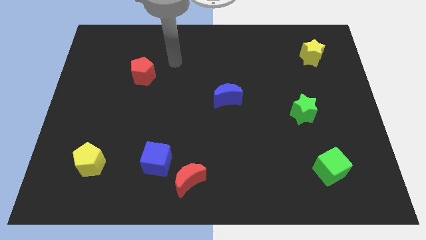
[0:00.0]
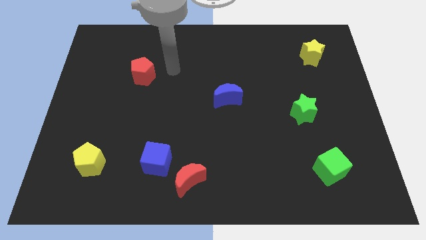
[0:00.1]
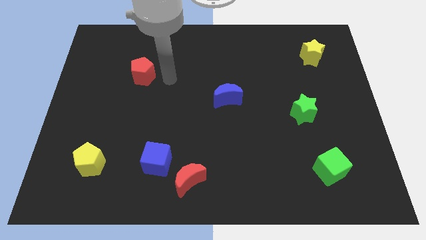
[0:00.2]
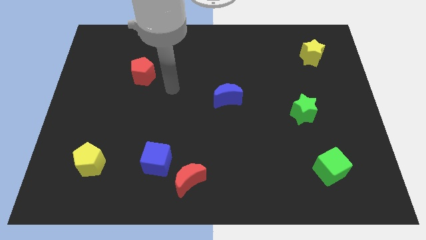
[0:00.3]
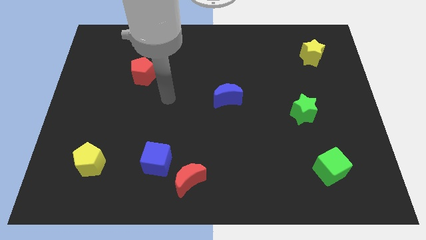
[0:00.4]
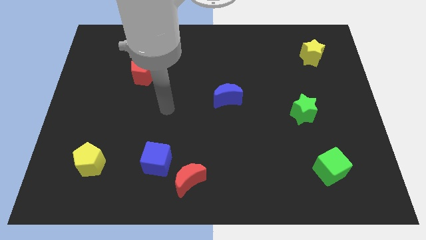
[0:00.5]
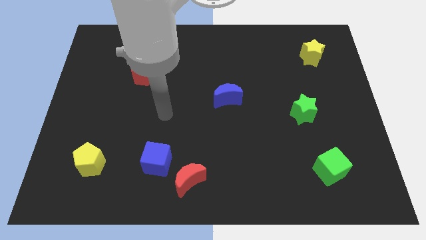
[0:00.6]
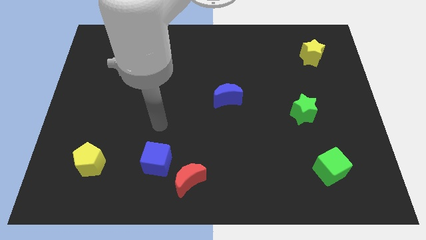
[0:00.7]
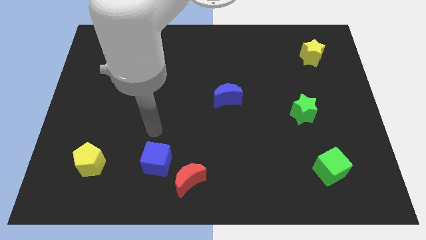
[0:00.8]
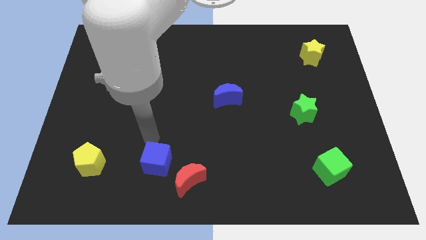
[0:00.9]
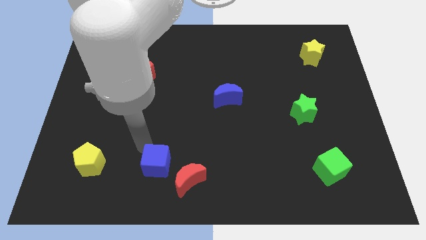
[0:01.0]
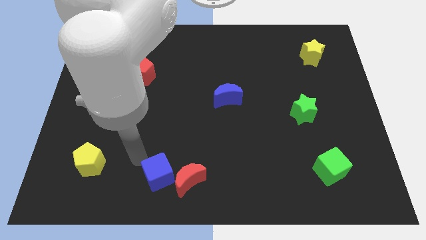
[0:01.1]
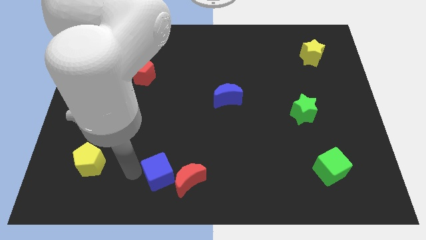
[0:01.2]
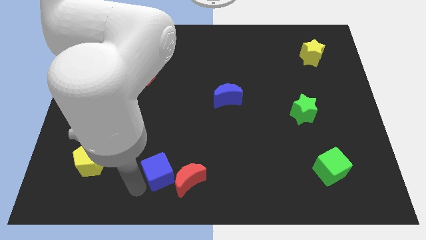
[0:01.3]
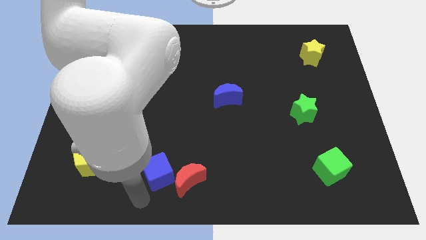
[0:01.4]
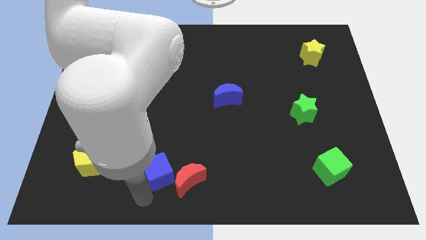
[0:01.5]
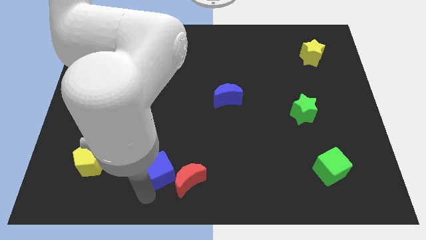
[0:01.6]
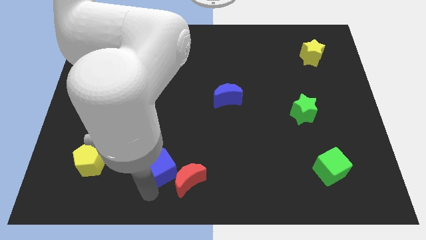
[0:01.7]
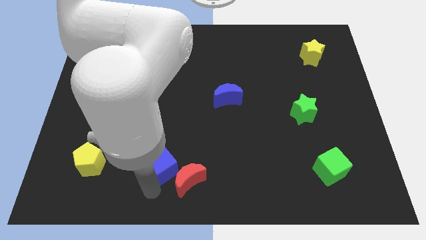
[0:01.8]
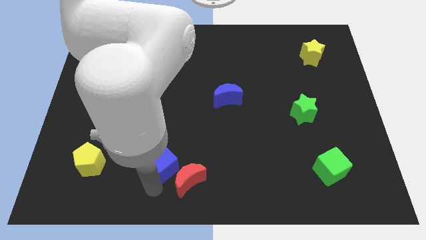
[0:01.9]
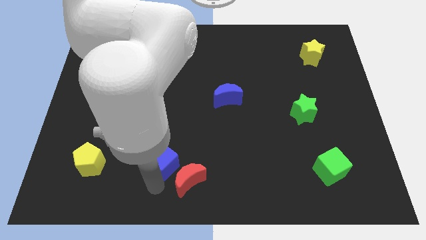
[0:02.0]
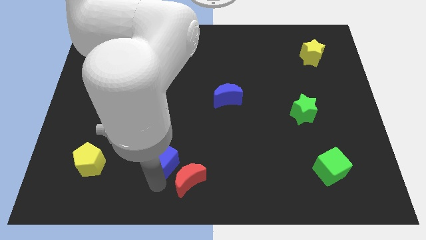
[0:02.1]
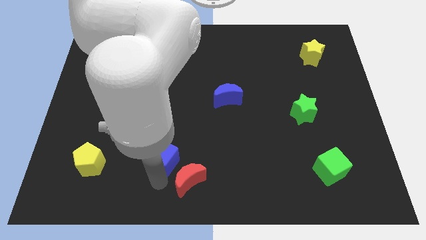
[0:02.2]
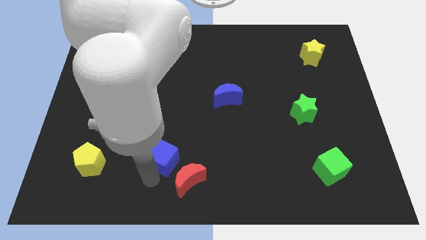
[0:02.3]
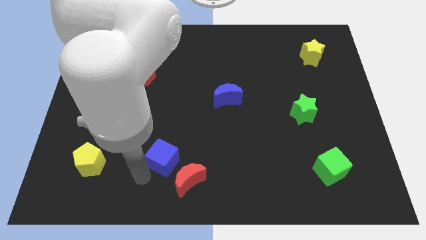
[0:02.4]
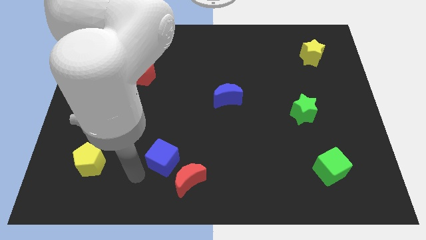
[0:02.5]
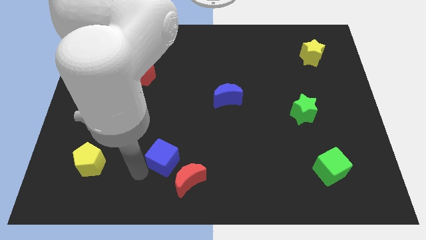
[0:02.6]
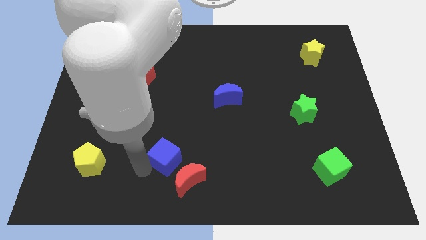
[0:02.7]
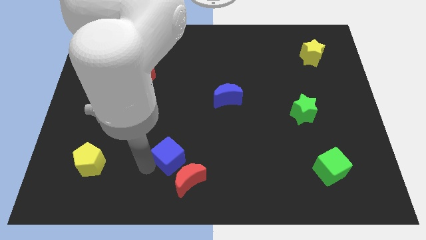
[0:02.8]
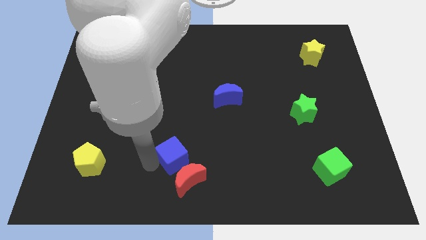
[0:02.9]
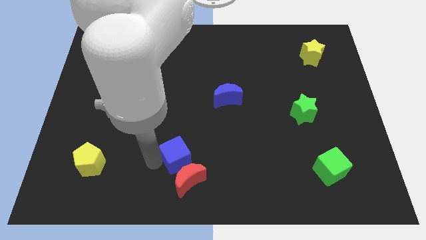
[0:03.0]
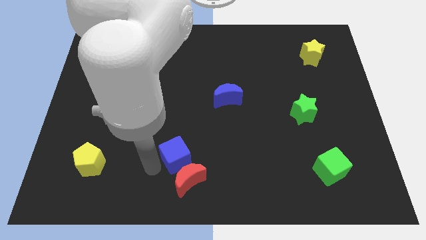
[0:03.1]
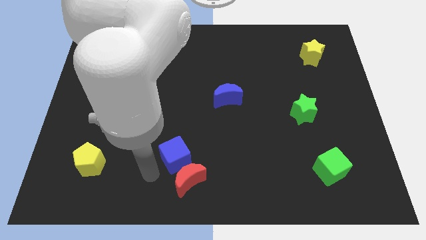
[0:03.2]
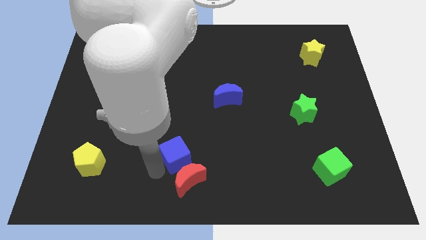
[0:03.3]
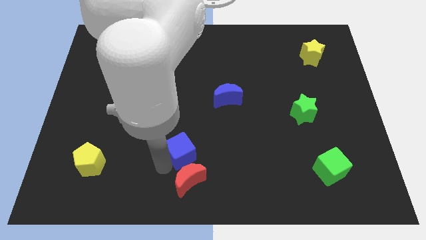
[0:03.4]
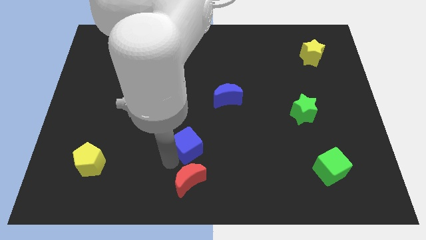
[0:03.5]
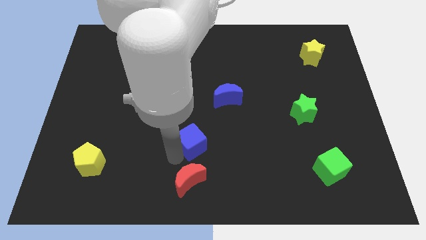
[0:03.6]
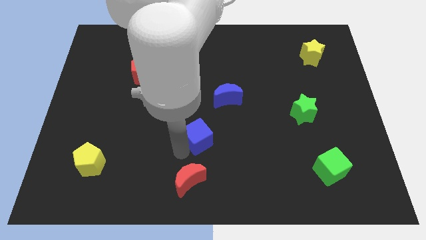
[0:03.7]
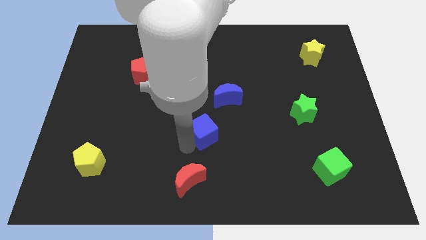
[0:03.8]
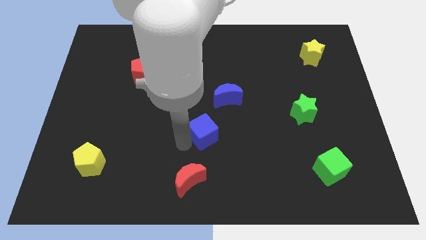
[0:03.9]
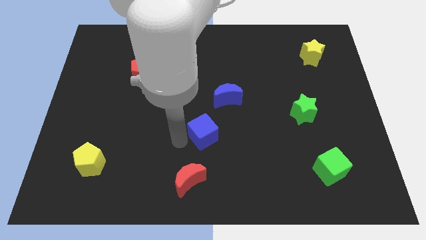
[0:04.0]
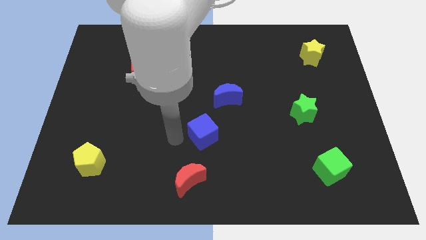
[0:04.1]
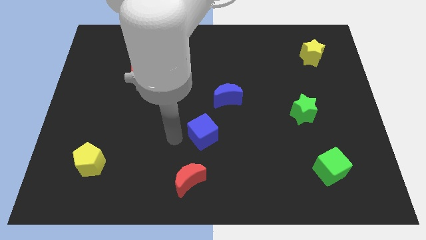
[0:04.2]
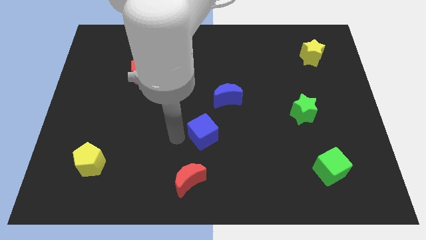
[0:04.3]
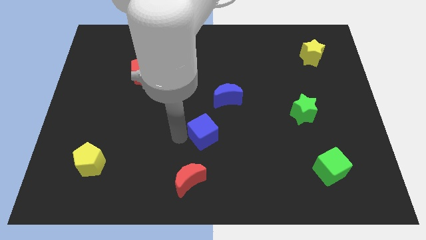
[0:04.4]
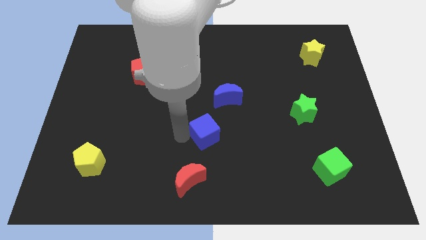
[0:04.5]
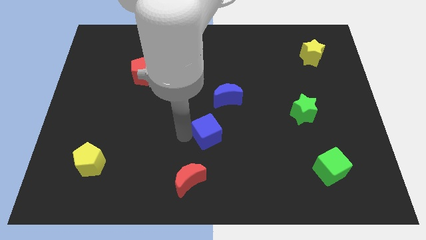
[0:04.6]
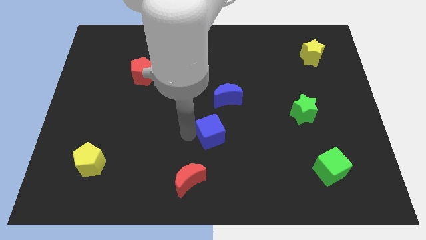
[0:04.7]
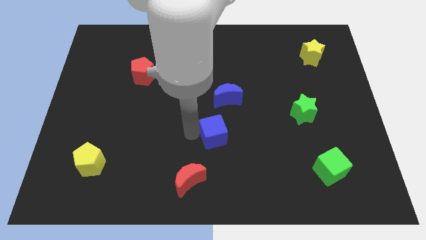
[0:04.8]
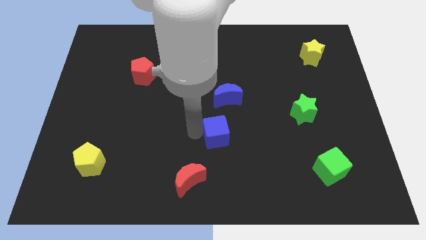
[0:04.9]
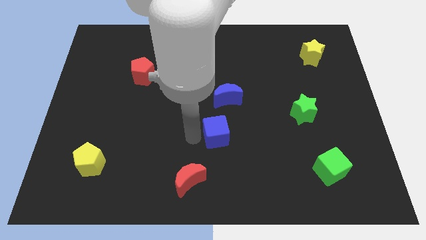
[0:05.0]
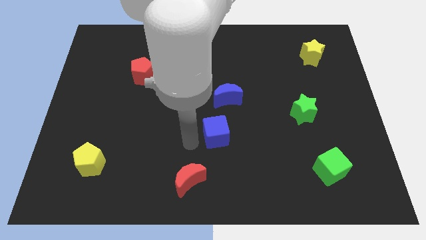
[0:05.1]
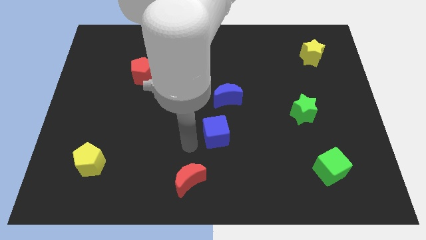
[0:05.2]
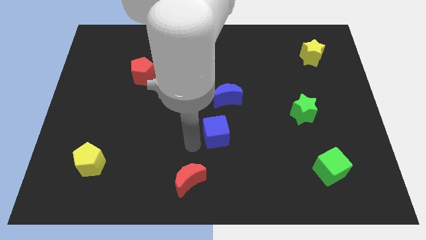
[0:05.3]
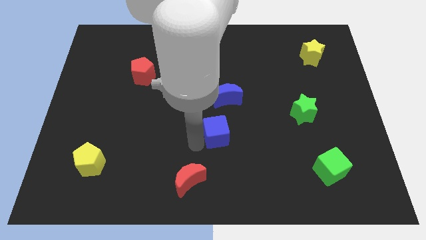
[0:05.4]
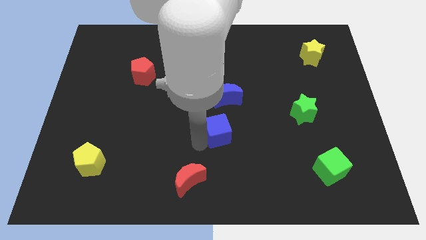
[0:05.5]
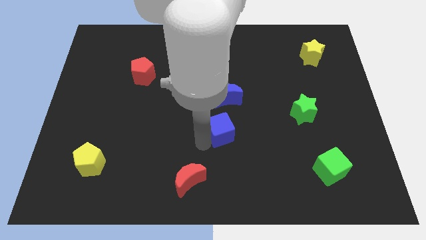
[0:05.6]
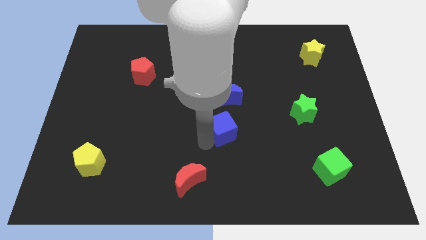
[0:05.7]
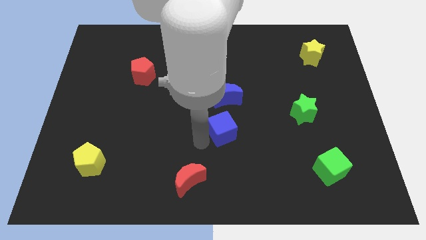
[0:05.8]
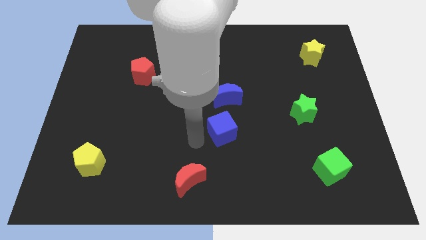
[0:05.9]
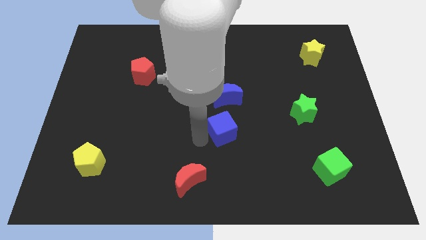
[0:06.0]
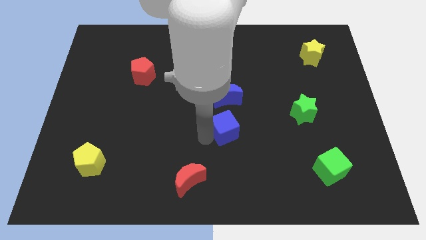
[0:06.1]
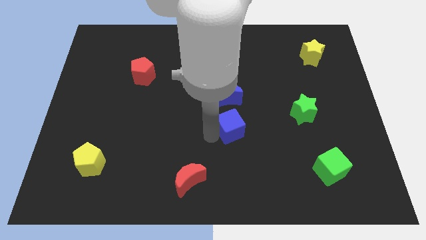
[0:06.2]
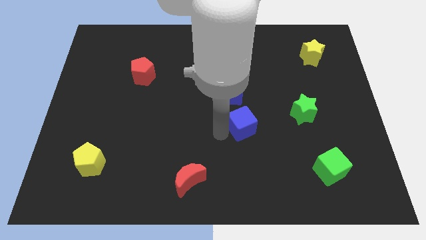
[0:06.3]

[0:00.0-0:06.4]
put the blue cube just left of the green star
